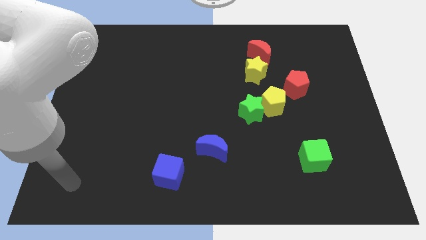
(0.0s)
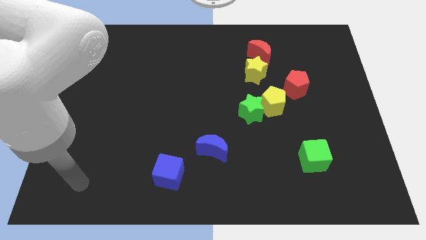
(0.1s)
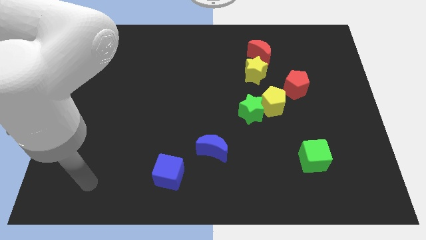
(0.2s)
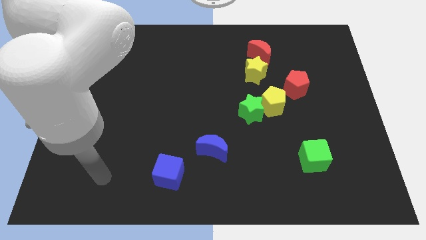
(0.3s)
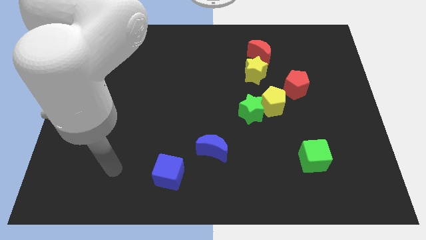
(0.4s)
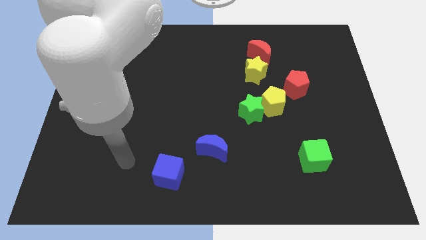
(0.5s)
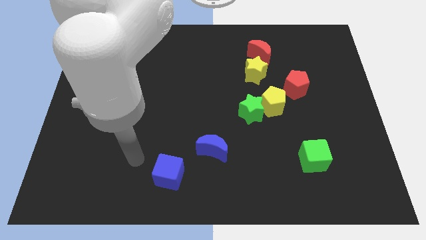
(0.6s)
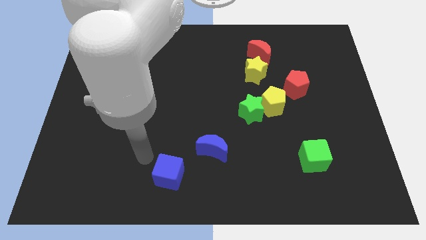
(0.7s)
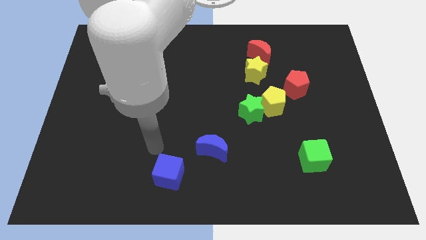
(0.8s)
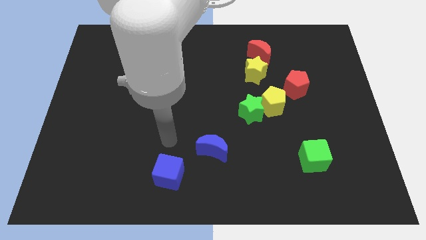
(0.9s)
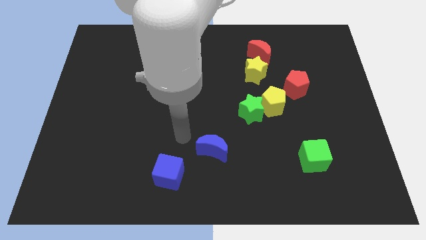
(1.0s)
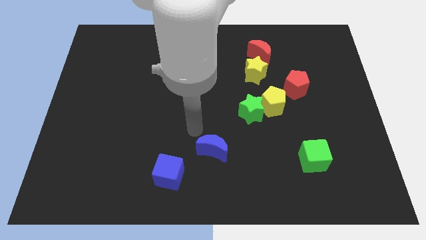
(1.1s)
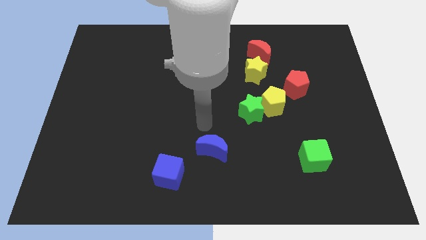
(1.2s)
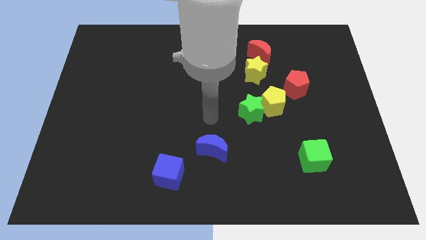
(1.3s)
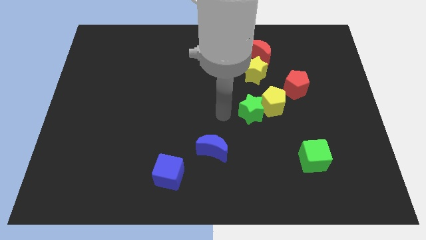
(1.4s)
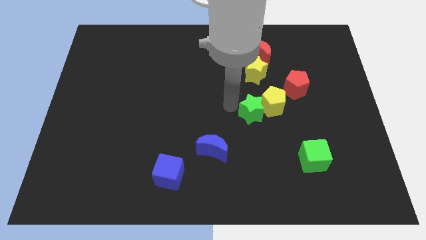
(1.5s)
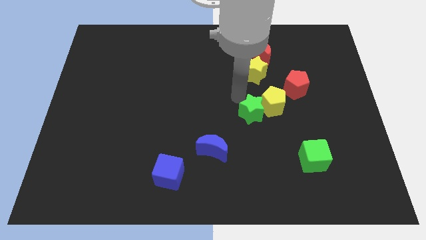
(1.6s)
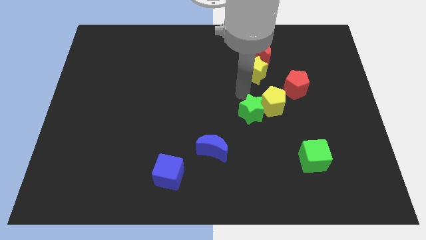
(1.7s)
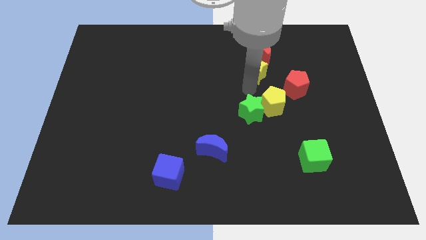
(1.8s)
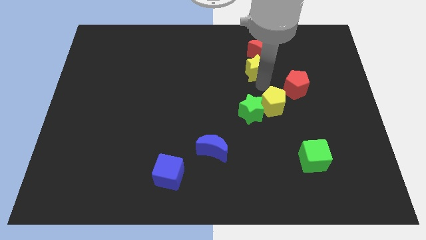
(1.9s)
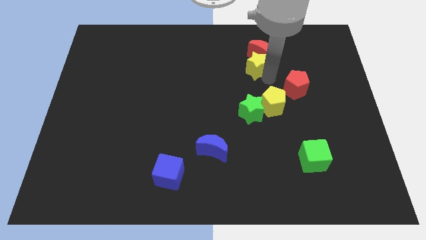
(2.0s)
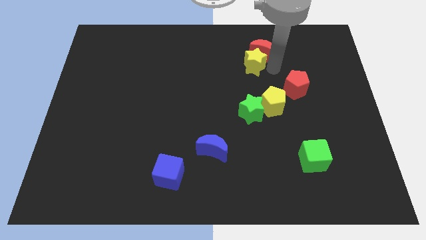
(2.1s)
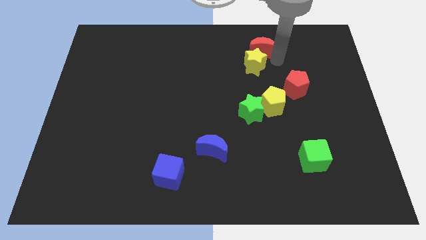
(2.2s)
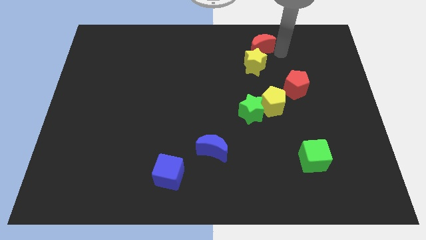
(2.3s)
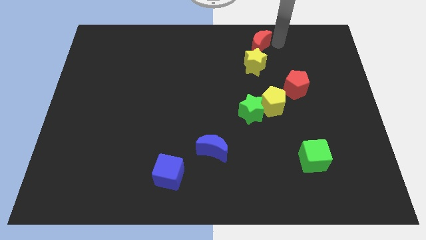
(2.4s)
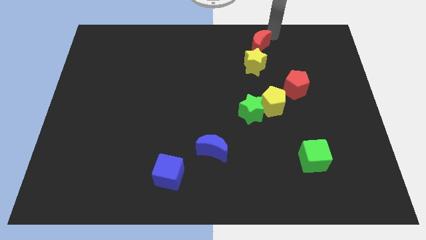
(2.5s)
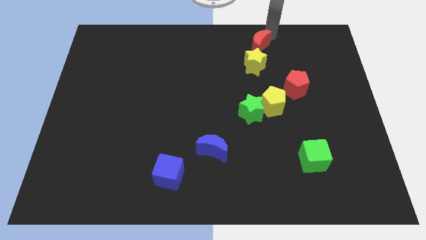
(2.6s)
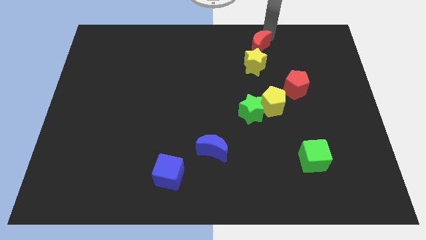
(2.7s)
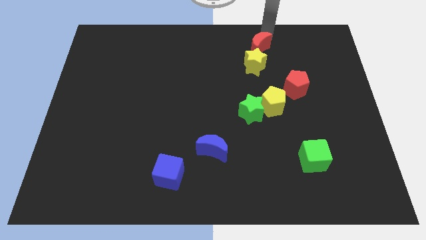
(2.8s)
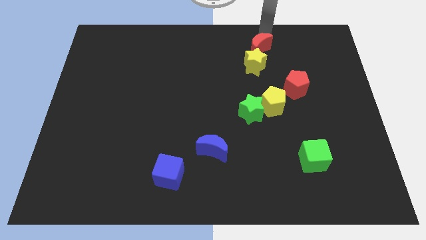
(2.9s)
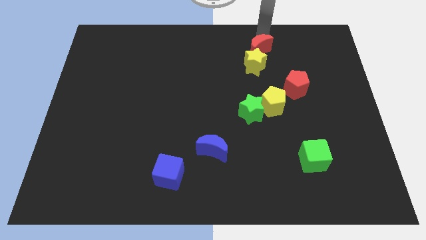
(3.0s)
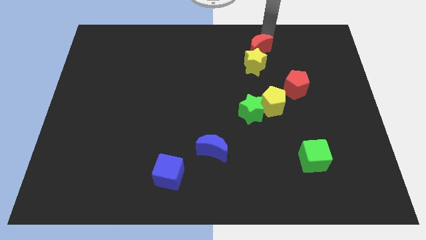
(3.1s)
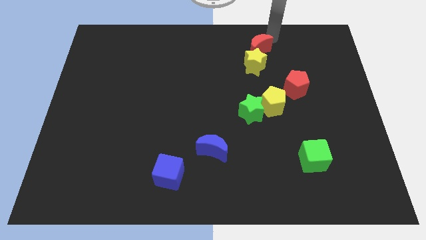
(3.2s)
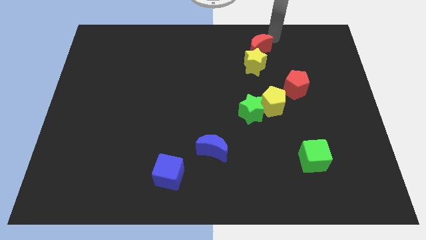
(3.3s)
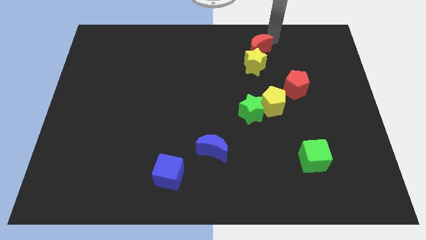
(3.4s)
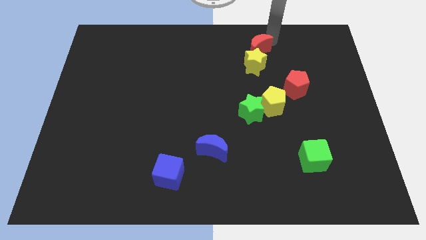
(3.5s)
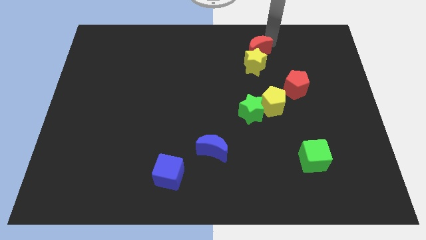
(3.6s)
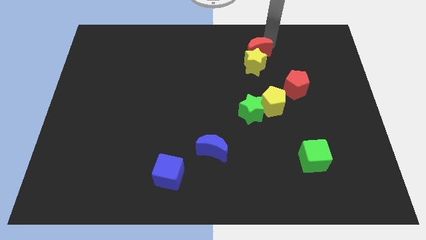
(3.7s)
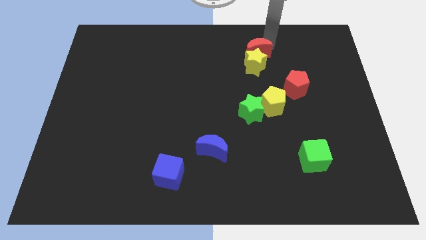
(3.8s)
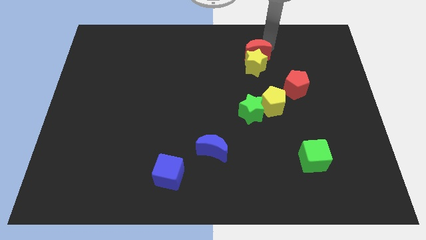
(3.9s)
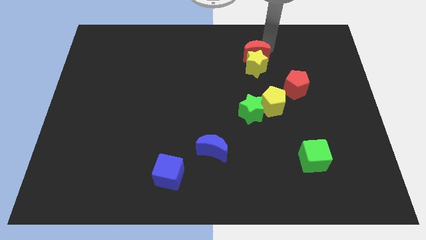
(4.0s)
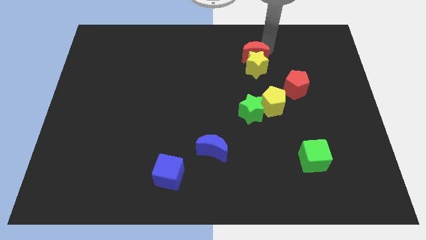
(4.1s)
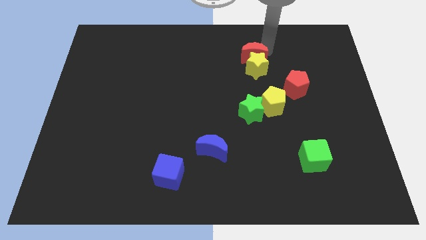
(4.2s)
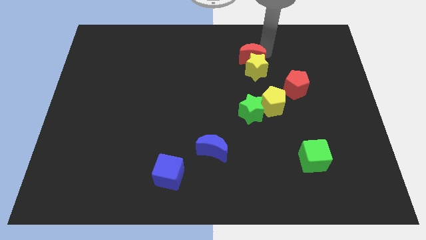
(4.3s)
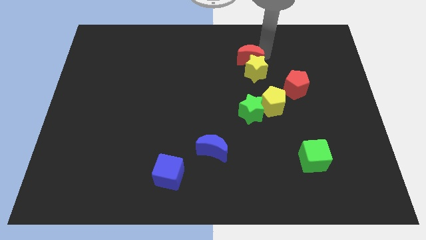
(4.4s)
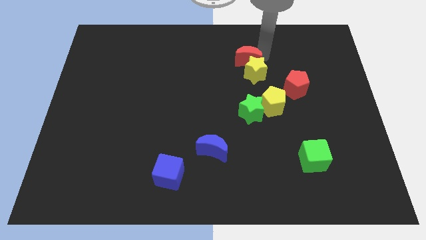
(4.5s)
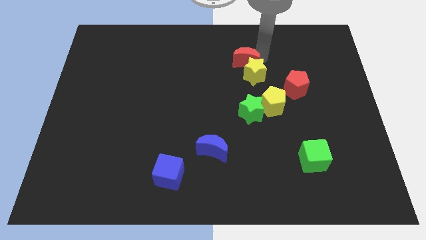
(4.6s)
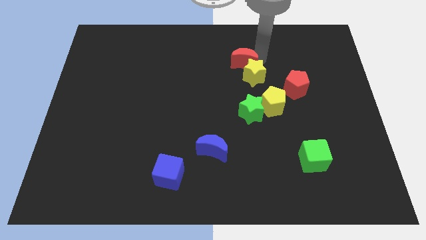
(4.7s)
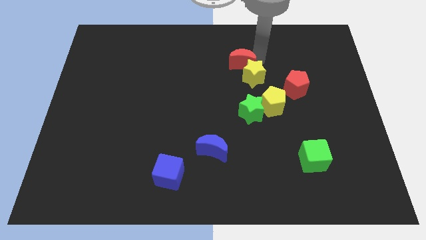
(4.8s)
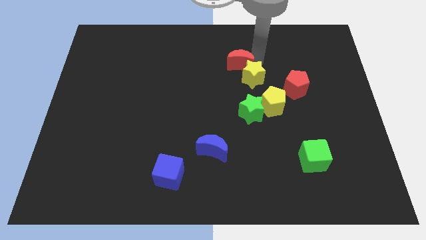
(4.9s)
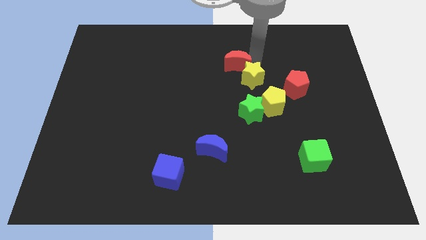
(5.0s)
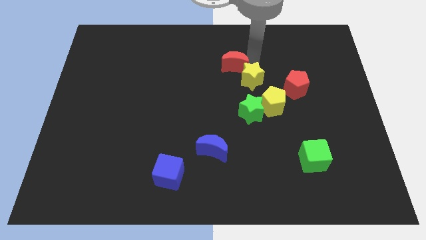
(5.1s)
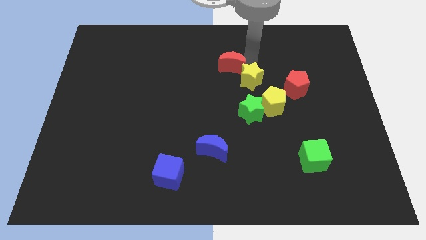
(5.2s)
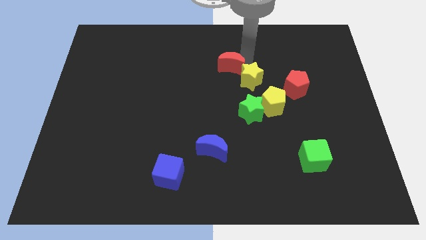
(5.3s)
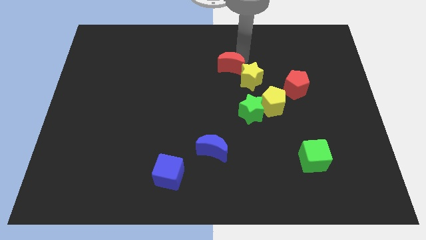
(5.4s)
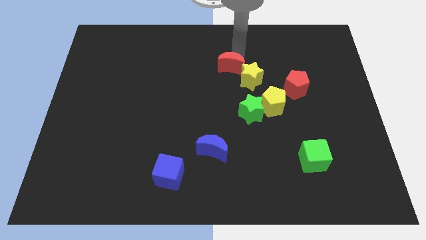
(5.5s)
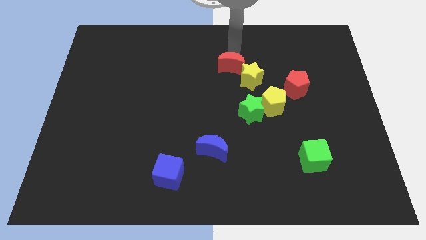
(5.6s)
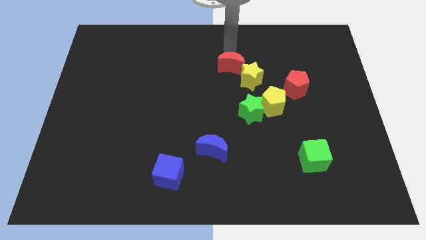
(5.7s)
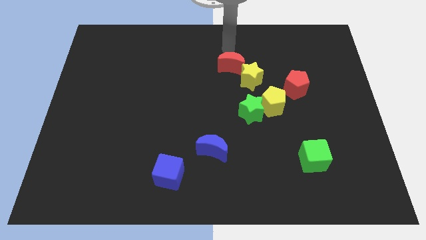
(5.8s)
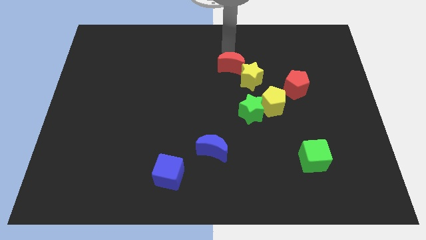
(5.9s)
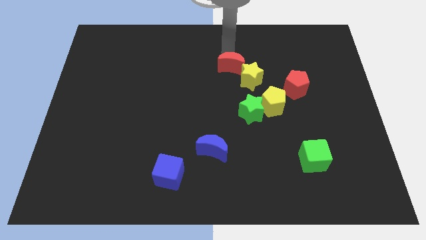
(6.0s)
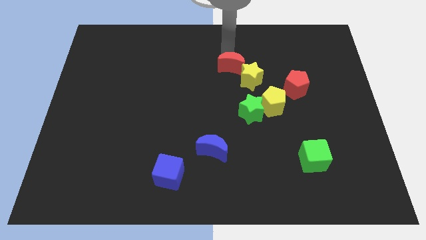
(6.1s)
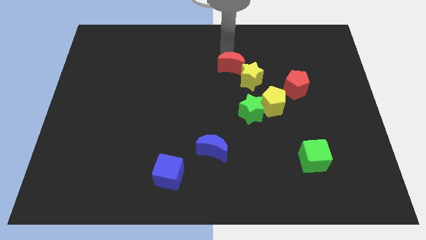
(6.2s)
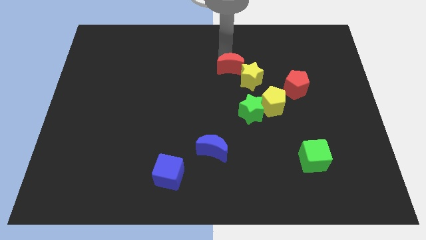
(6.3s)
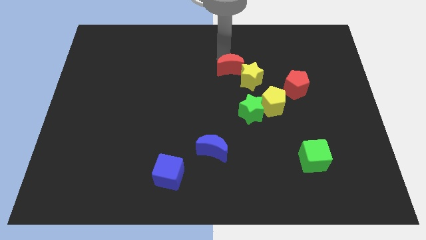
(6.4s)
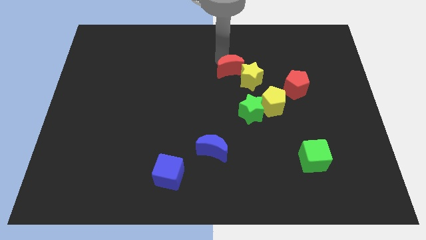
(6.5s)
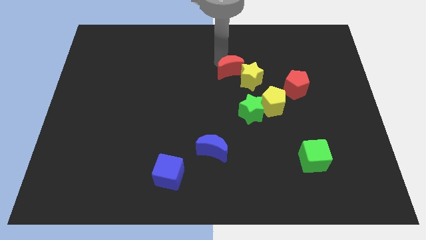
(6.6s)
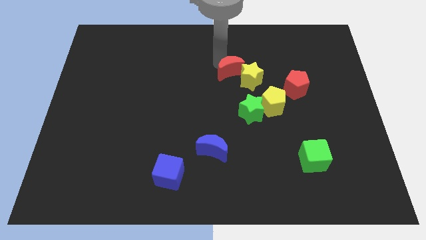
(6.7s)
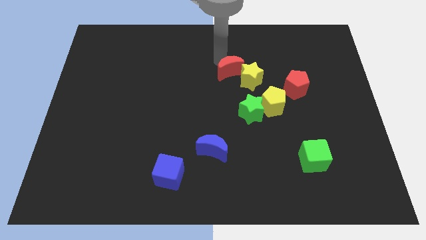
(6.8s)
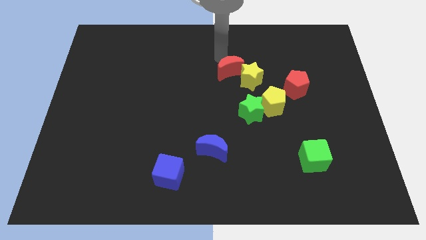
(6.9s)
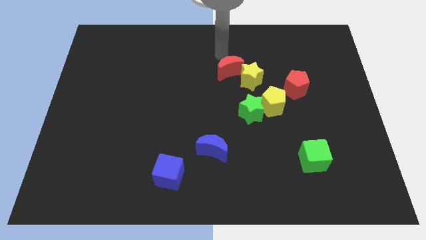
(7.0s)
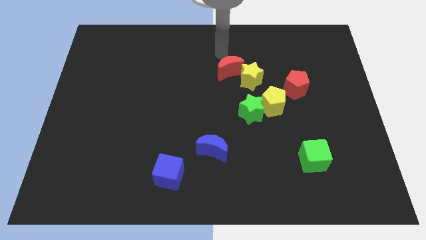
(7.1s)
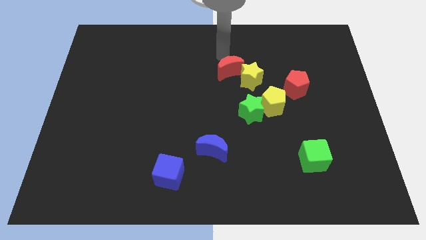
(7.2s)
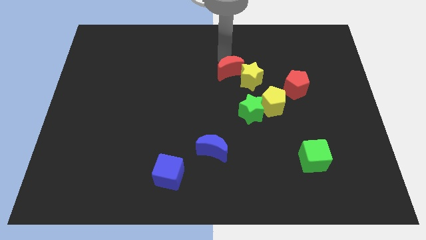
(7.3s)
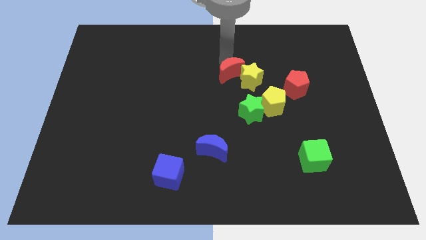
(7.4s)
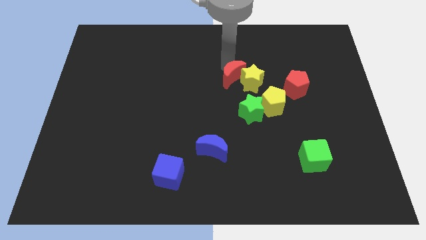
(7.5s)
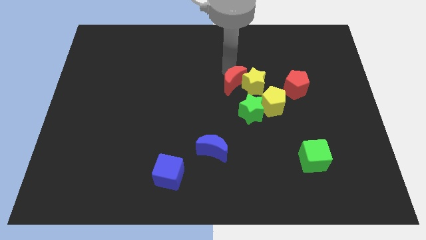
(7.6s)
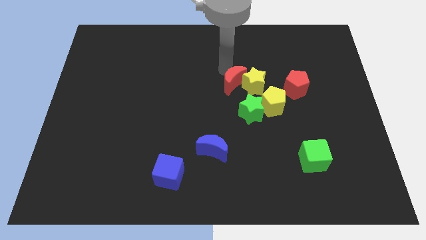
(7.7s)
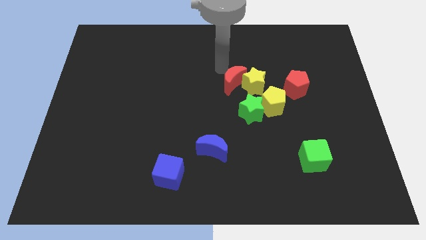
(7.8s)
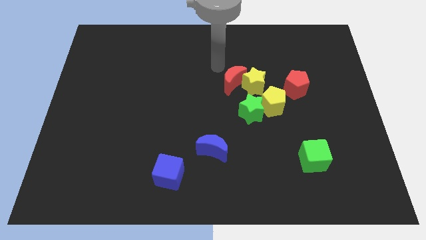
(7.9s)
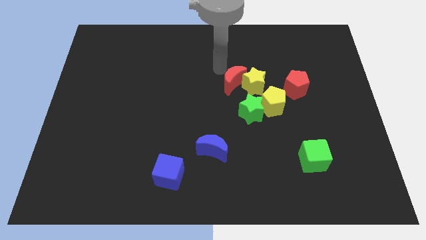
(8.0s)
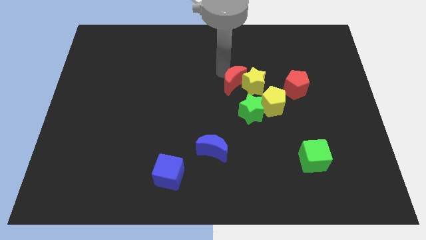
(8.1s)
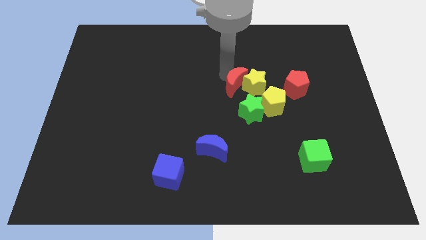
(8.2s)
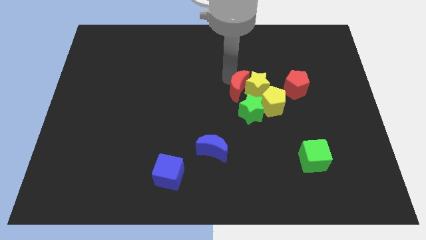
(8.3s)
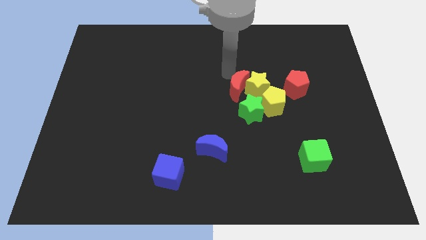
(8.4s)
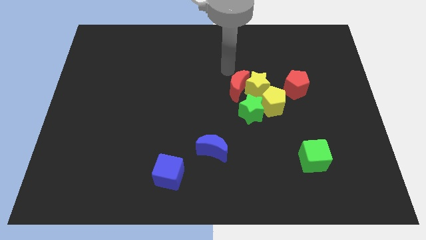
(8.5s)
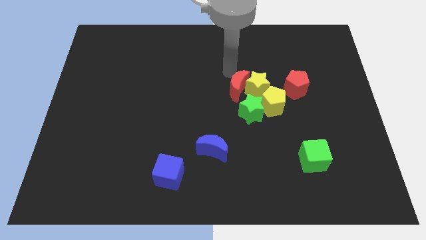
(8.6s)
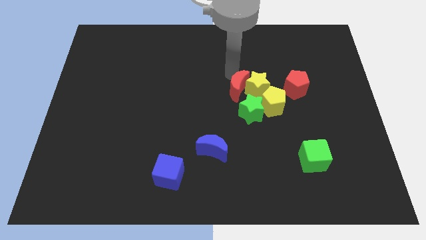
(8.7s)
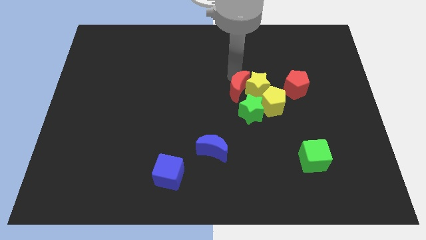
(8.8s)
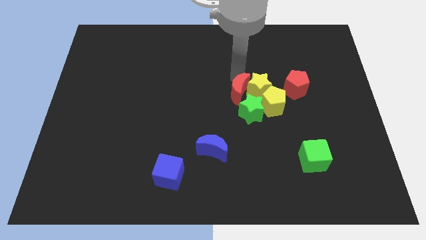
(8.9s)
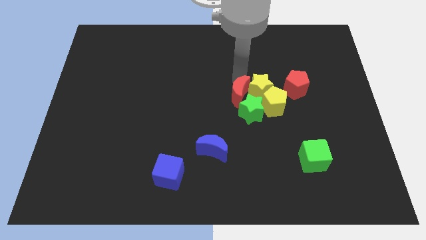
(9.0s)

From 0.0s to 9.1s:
move the red moon next to the green star
